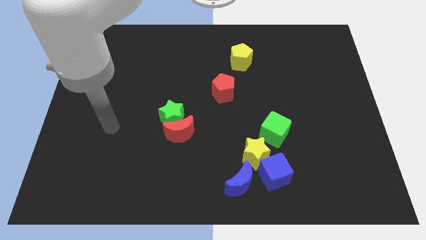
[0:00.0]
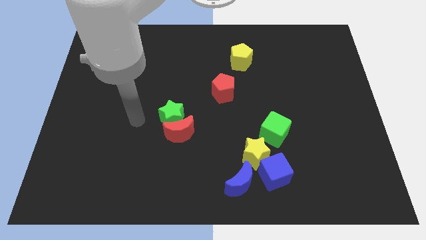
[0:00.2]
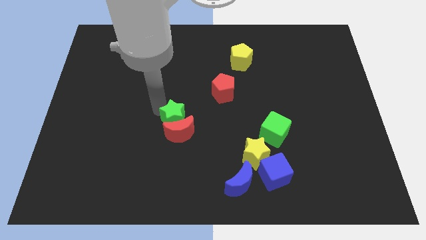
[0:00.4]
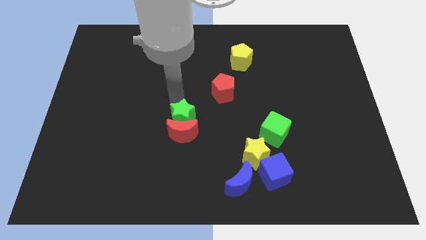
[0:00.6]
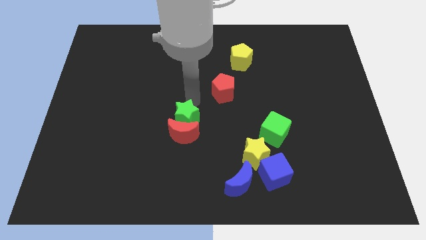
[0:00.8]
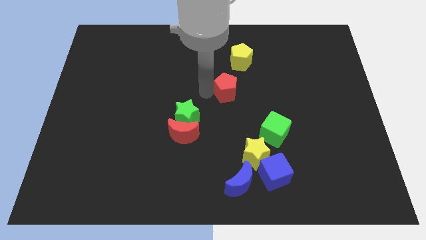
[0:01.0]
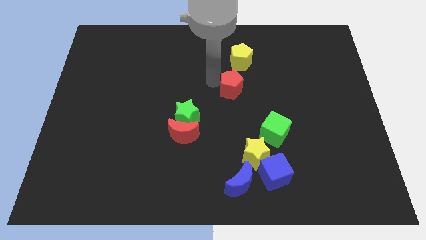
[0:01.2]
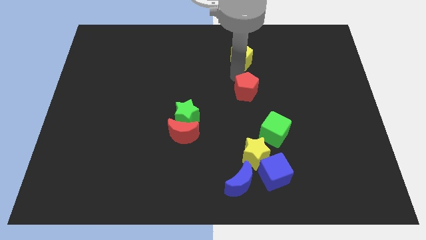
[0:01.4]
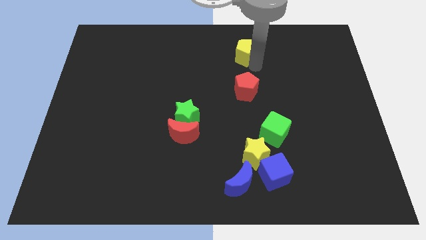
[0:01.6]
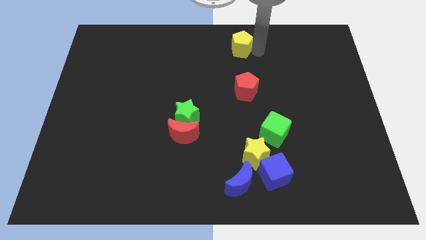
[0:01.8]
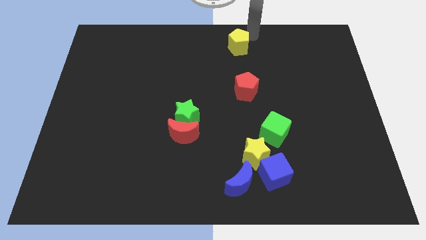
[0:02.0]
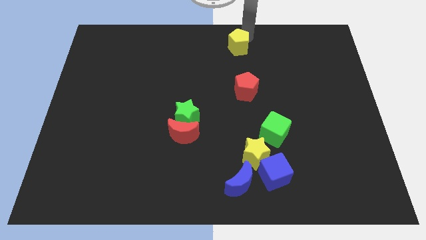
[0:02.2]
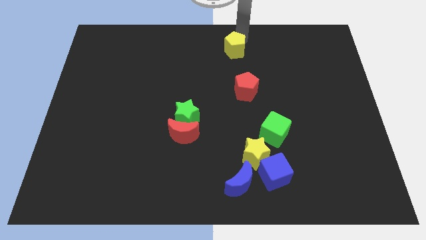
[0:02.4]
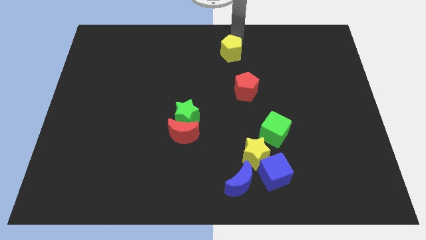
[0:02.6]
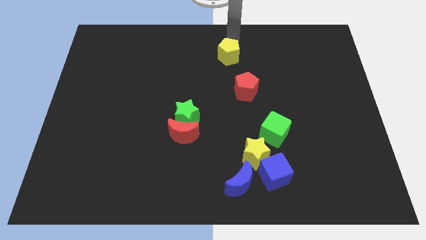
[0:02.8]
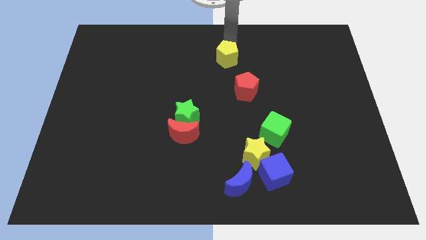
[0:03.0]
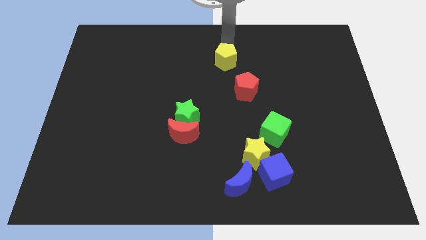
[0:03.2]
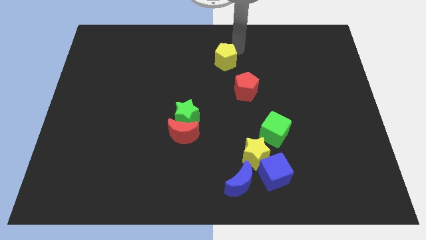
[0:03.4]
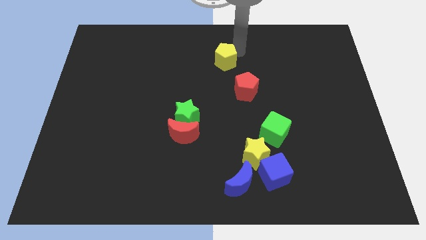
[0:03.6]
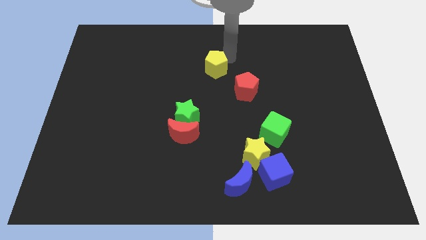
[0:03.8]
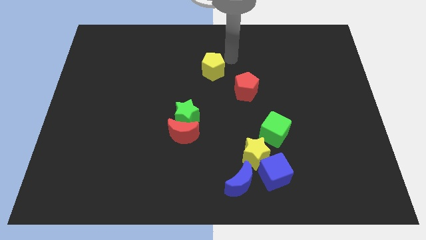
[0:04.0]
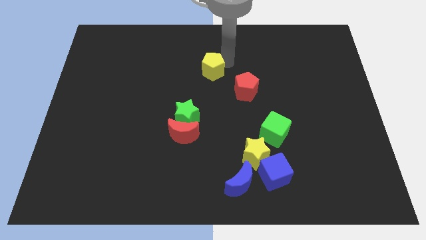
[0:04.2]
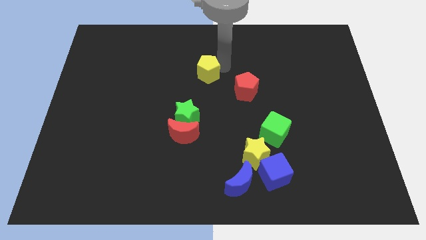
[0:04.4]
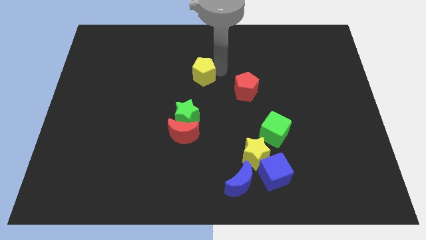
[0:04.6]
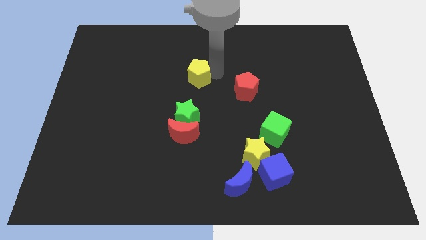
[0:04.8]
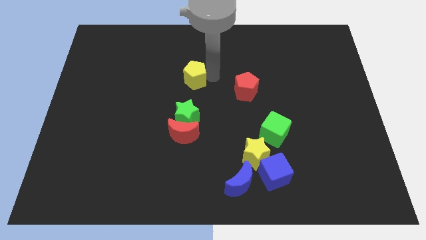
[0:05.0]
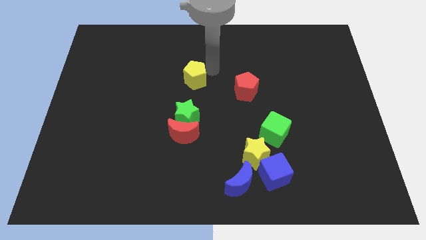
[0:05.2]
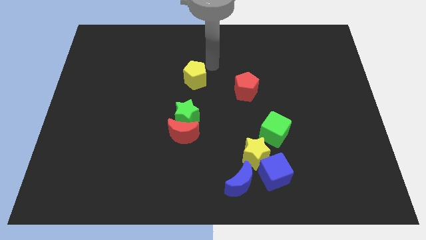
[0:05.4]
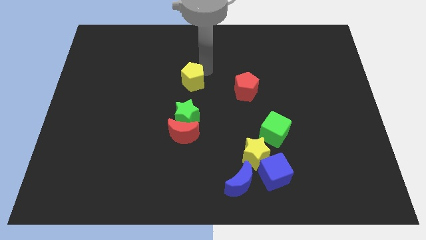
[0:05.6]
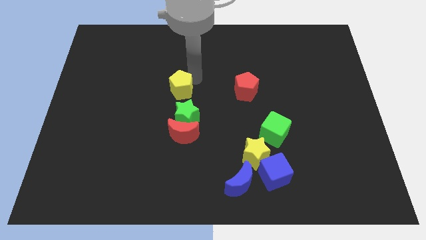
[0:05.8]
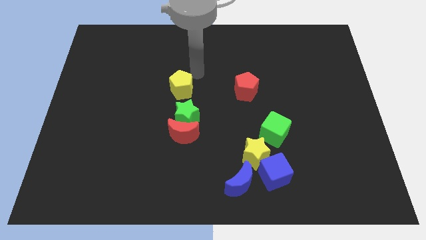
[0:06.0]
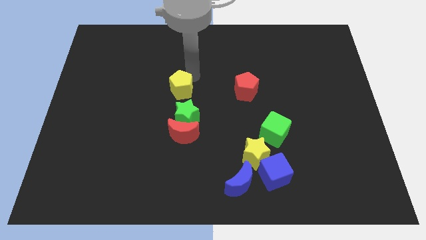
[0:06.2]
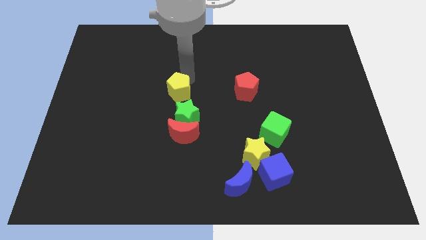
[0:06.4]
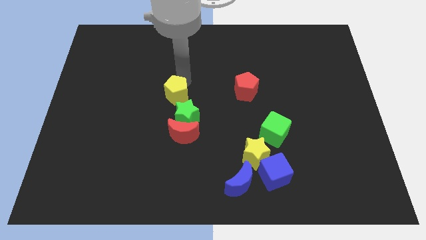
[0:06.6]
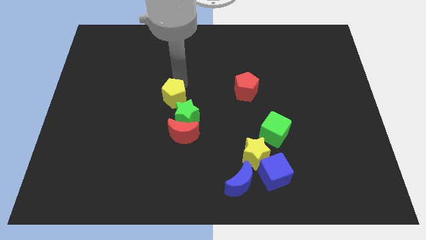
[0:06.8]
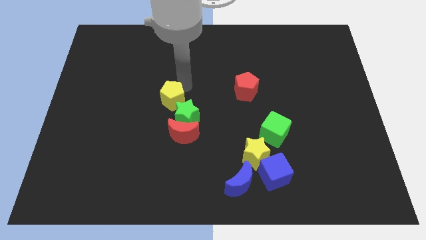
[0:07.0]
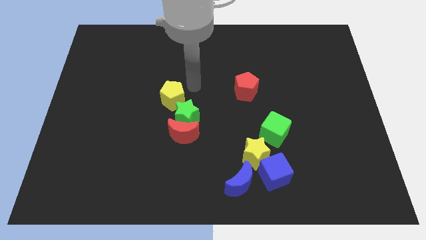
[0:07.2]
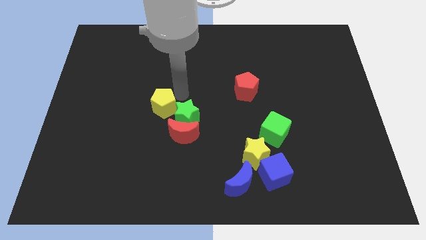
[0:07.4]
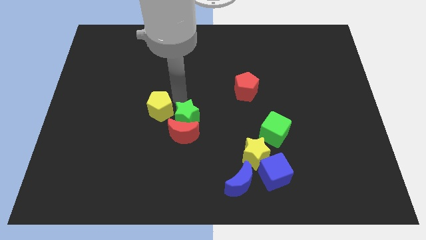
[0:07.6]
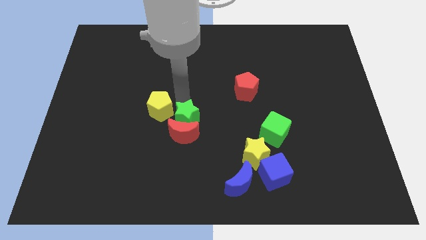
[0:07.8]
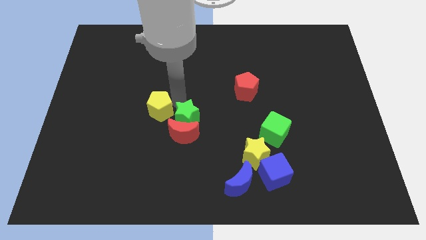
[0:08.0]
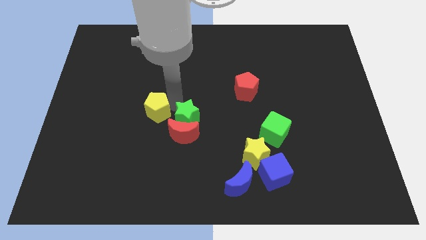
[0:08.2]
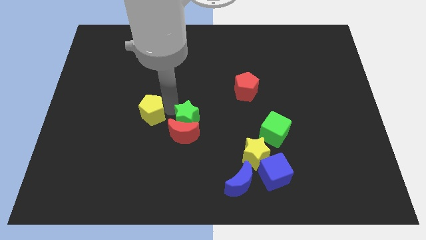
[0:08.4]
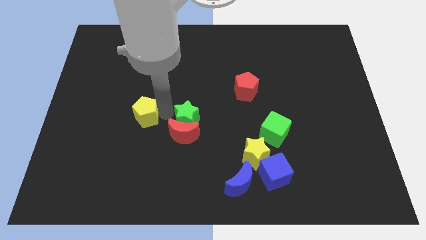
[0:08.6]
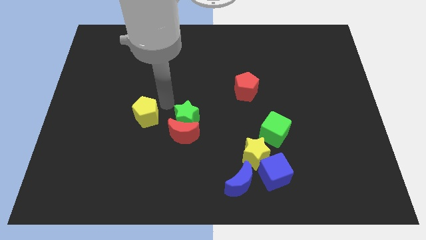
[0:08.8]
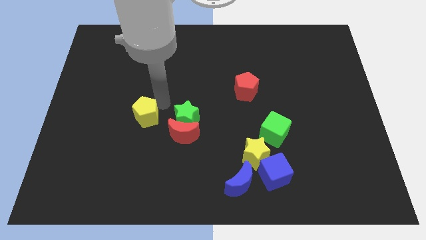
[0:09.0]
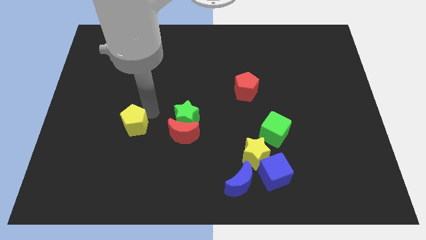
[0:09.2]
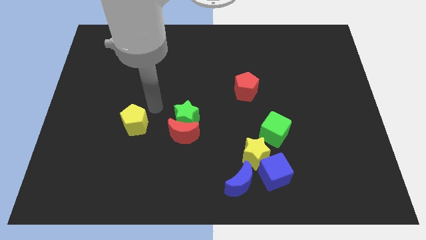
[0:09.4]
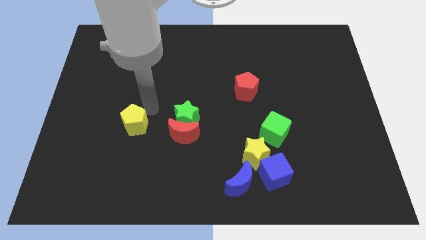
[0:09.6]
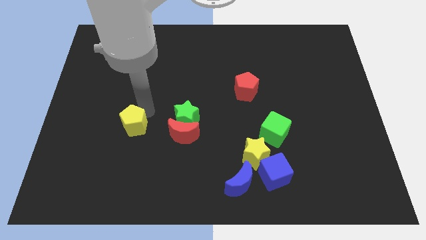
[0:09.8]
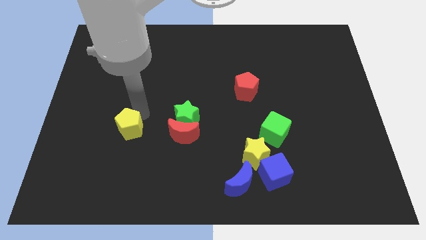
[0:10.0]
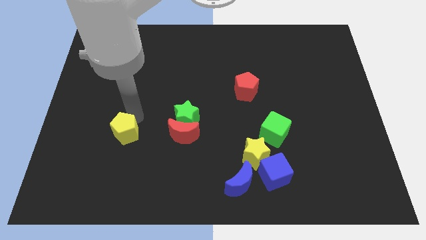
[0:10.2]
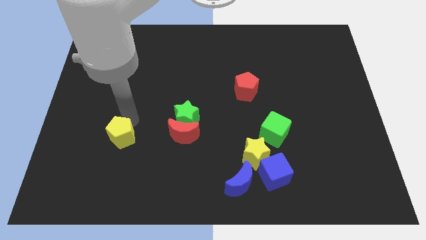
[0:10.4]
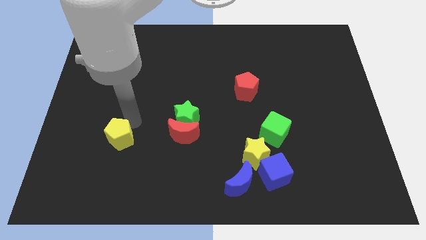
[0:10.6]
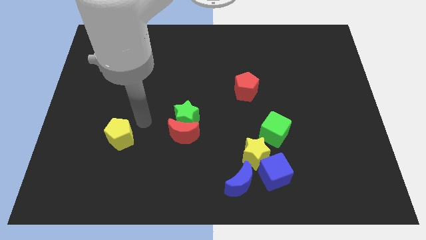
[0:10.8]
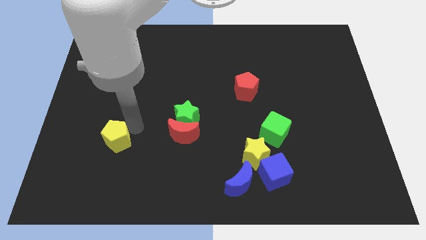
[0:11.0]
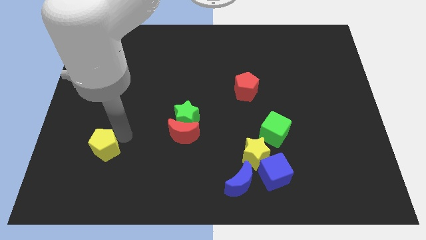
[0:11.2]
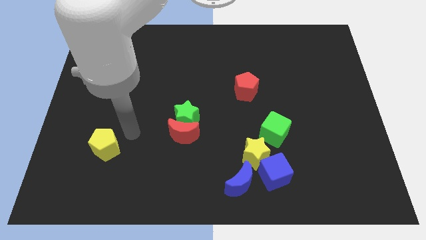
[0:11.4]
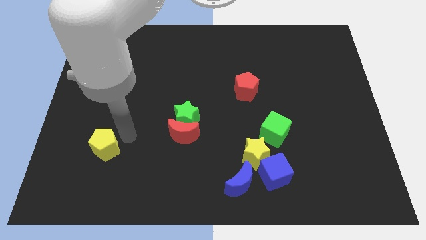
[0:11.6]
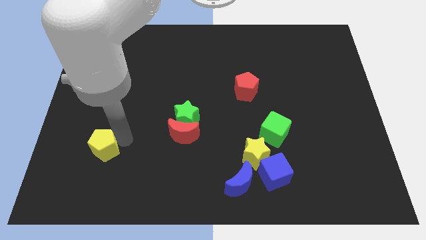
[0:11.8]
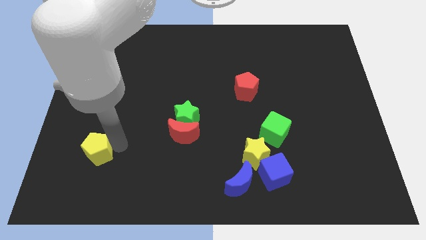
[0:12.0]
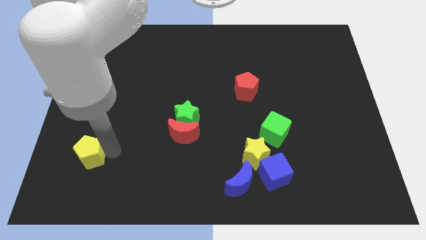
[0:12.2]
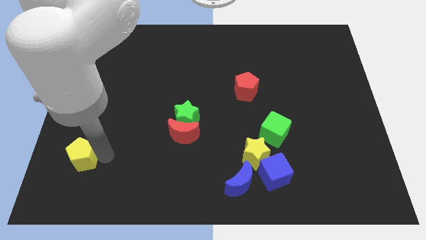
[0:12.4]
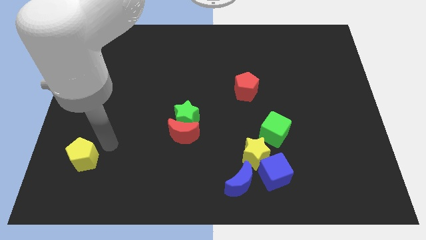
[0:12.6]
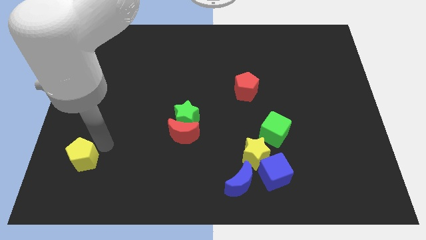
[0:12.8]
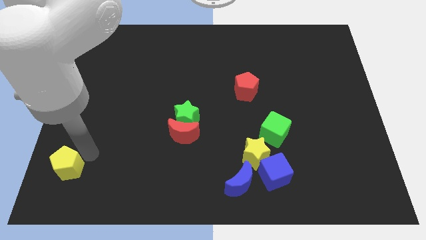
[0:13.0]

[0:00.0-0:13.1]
put the yellow pentagon to the bottom left
